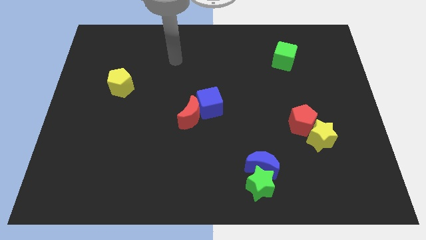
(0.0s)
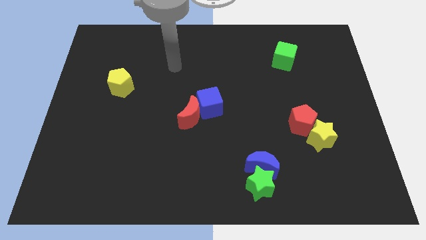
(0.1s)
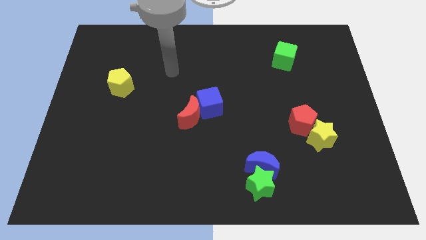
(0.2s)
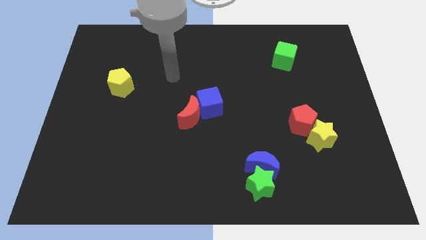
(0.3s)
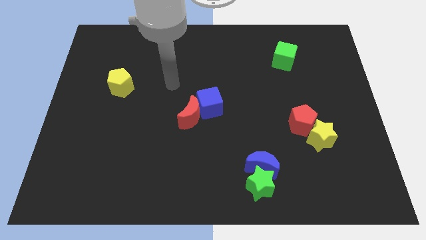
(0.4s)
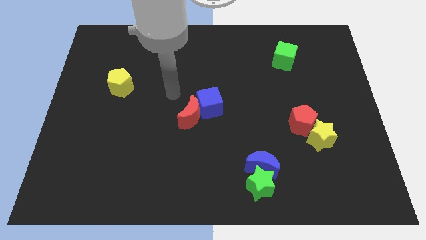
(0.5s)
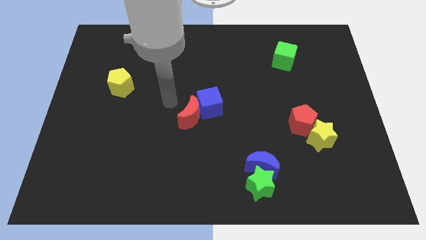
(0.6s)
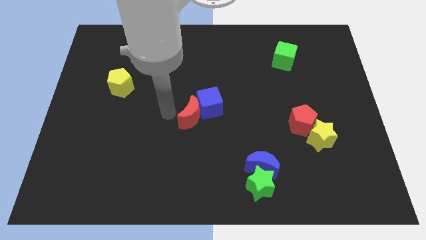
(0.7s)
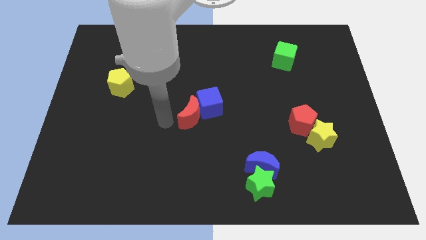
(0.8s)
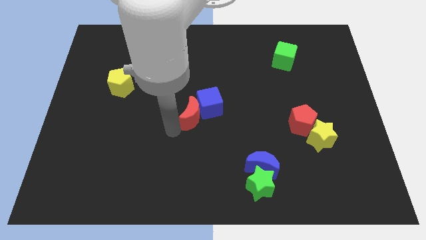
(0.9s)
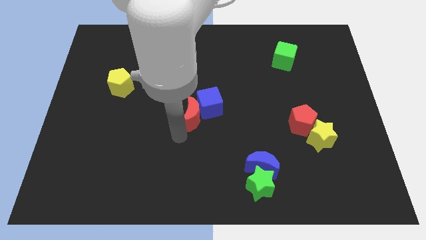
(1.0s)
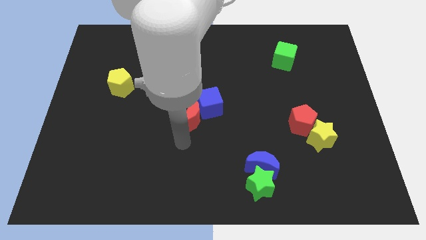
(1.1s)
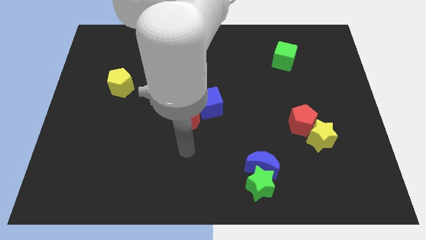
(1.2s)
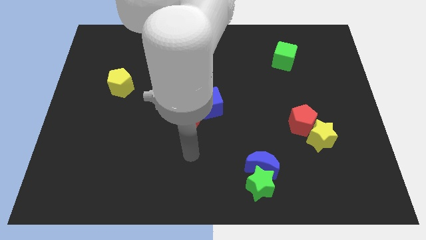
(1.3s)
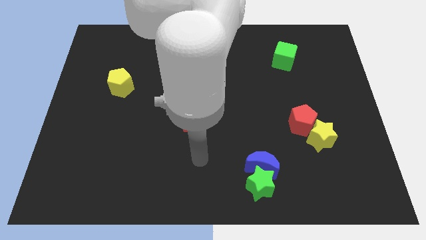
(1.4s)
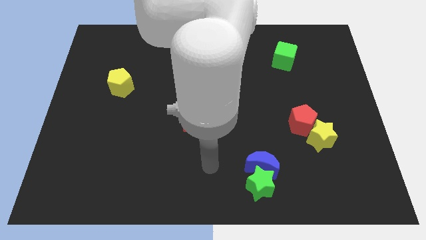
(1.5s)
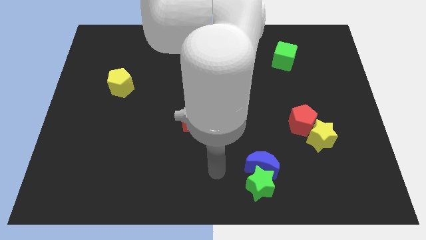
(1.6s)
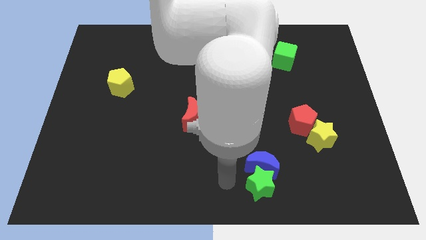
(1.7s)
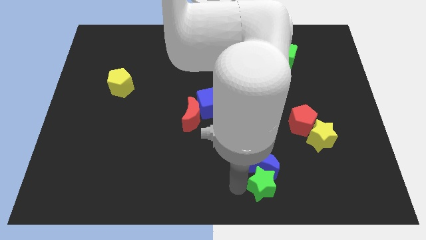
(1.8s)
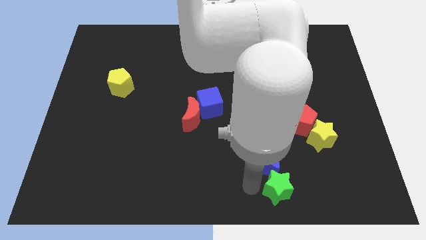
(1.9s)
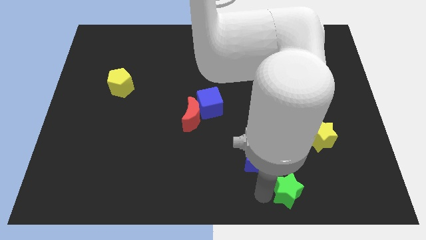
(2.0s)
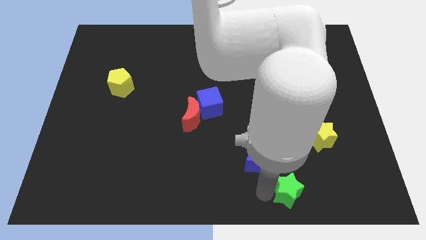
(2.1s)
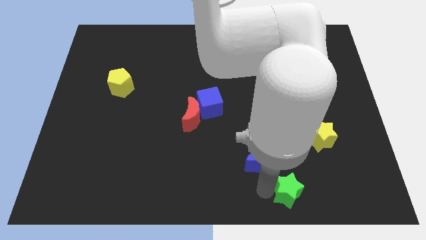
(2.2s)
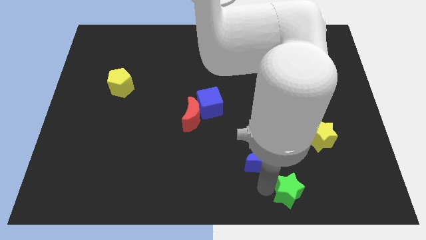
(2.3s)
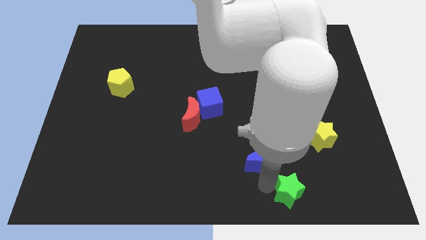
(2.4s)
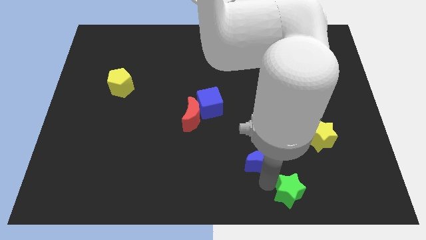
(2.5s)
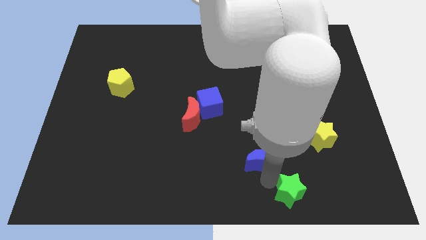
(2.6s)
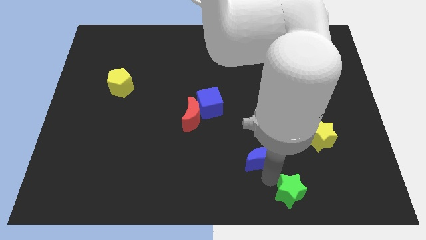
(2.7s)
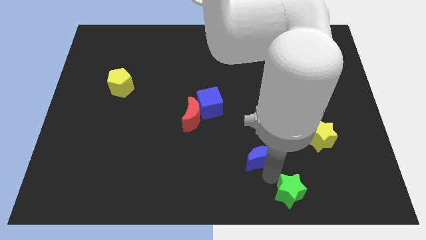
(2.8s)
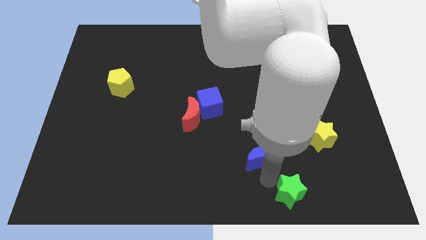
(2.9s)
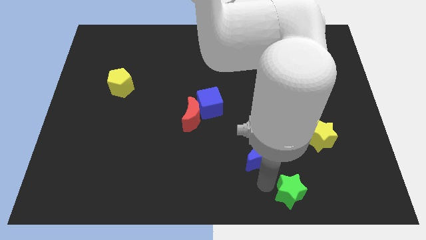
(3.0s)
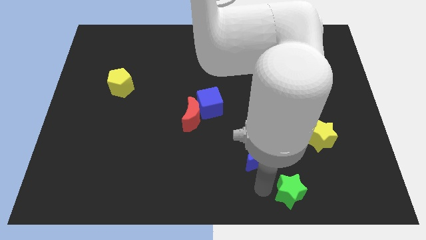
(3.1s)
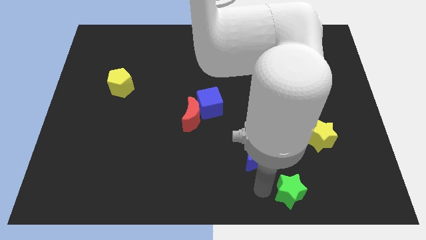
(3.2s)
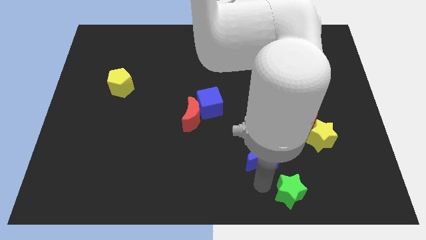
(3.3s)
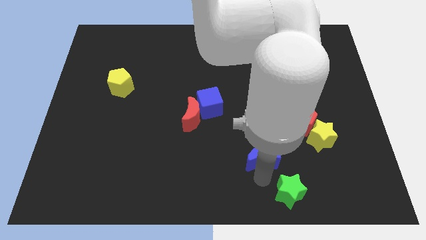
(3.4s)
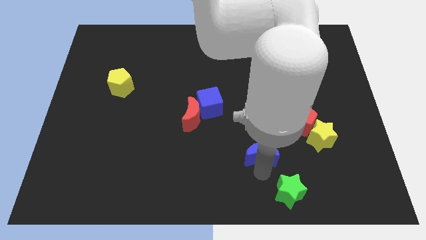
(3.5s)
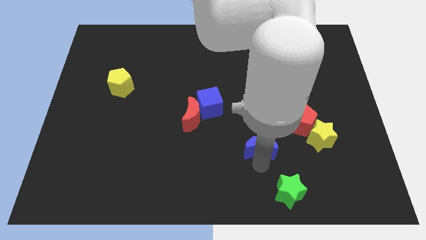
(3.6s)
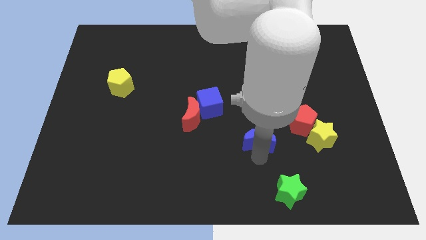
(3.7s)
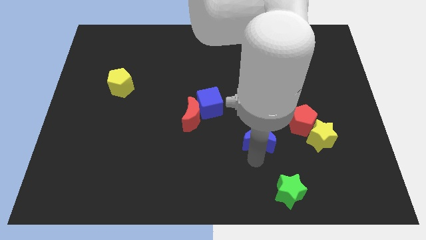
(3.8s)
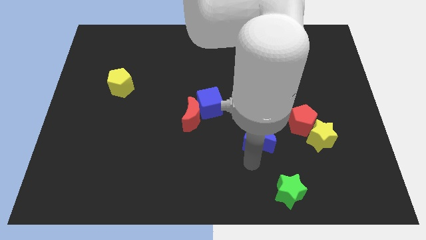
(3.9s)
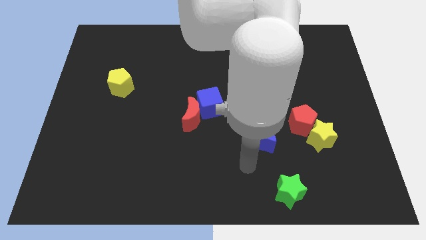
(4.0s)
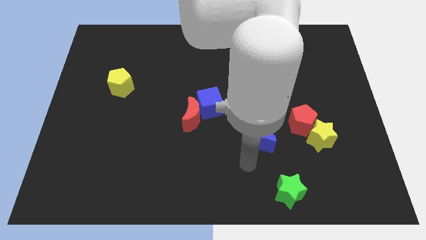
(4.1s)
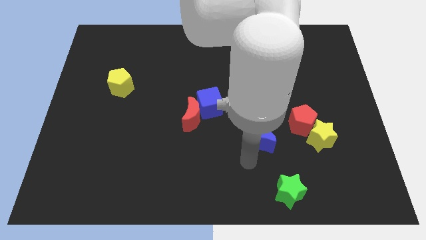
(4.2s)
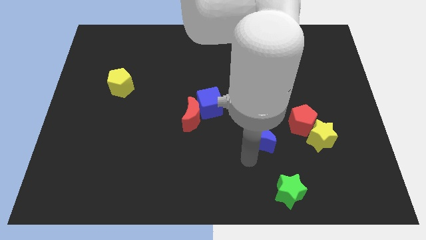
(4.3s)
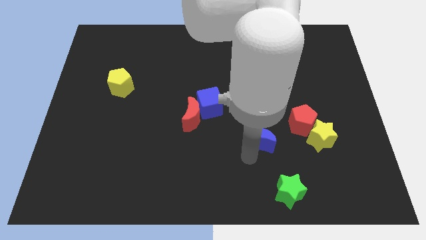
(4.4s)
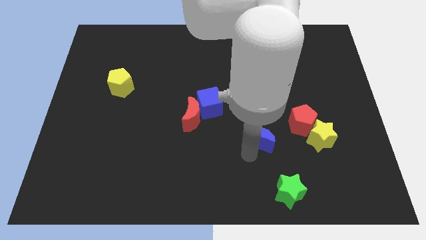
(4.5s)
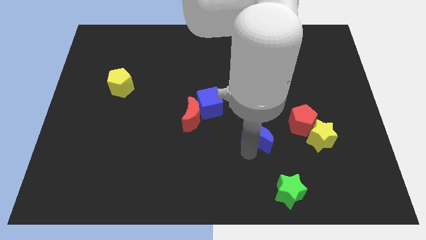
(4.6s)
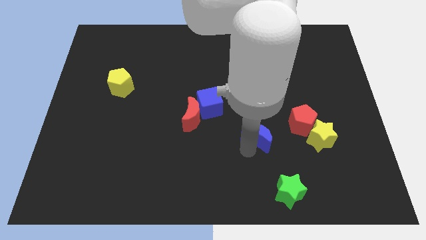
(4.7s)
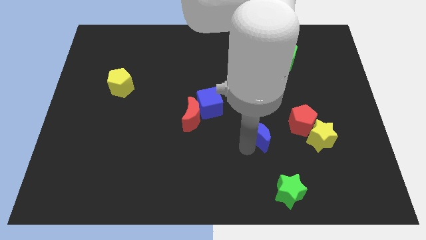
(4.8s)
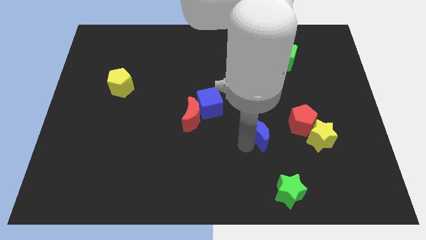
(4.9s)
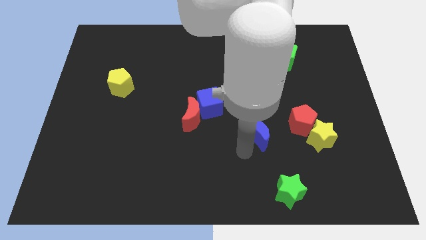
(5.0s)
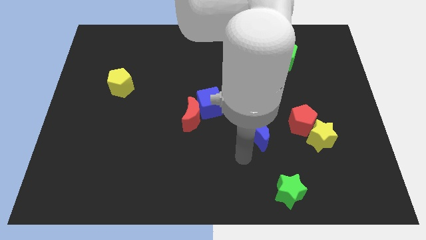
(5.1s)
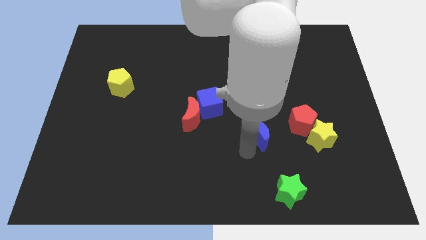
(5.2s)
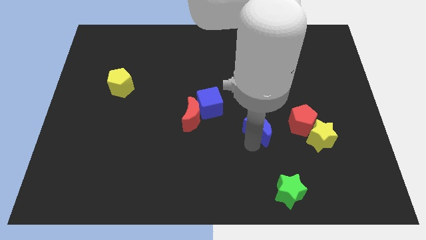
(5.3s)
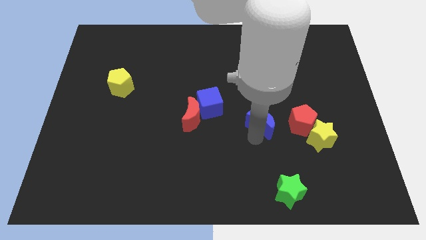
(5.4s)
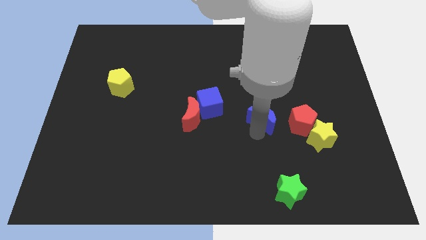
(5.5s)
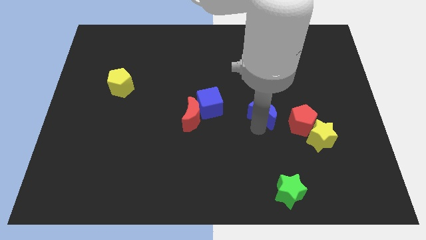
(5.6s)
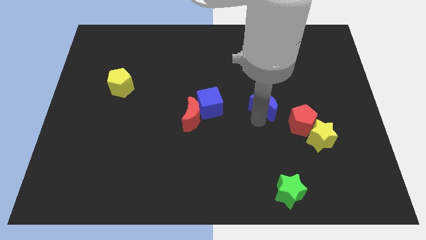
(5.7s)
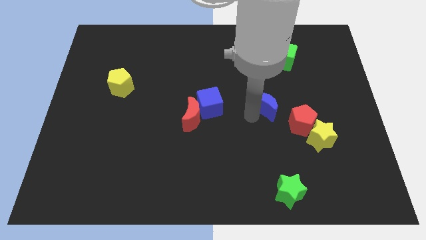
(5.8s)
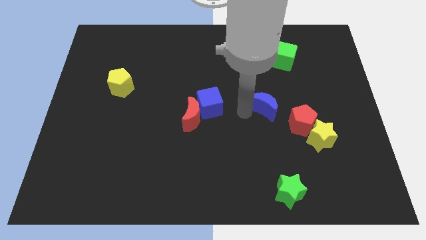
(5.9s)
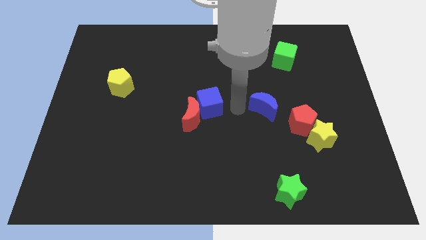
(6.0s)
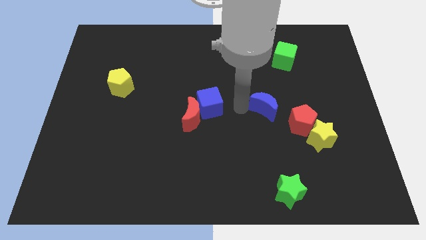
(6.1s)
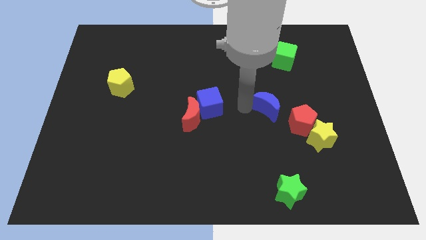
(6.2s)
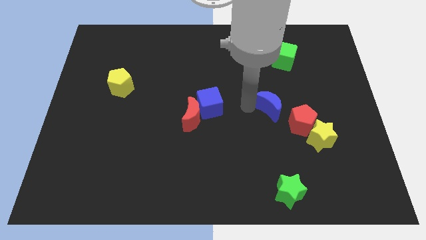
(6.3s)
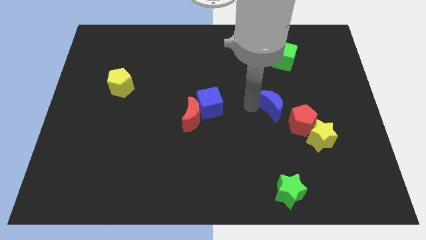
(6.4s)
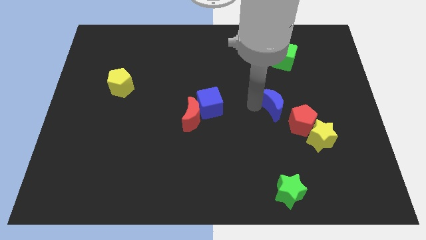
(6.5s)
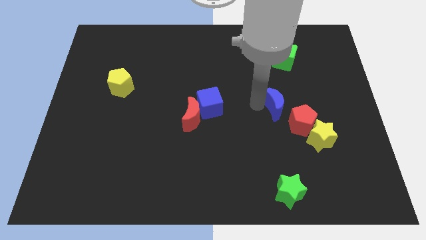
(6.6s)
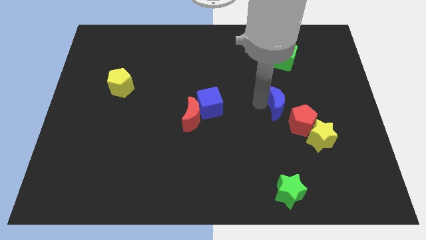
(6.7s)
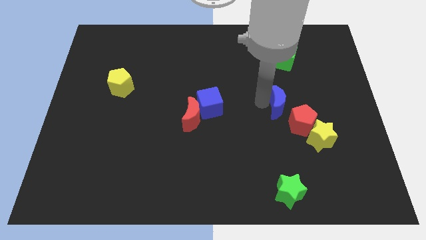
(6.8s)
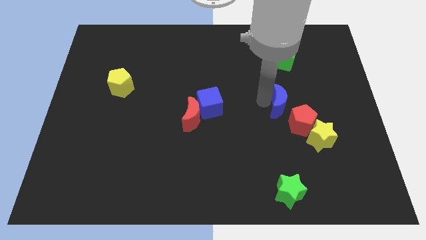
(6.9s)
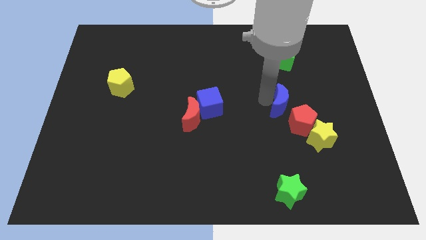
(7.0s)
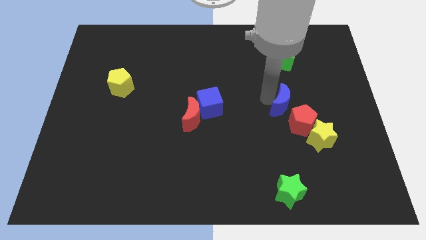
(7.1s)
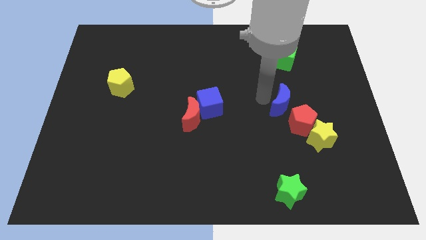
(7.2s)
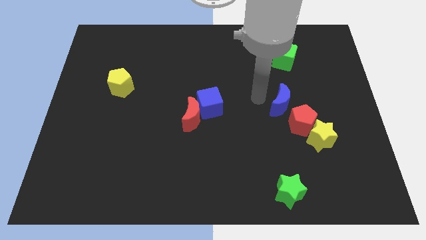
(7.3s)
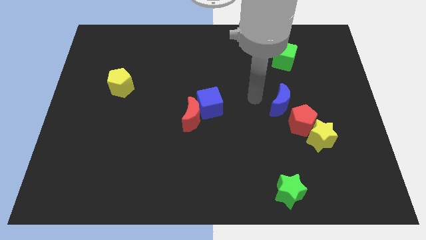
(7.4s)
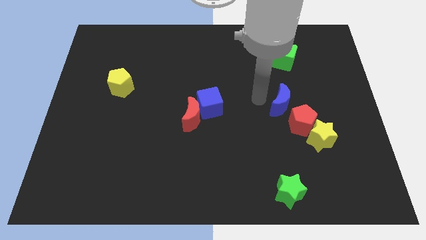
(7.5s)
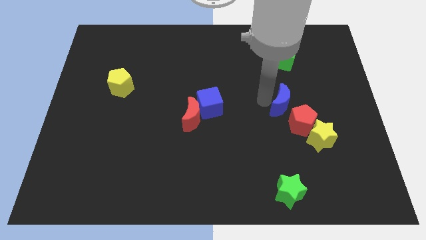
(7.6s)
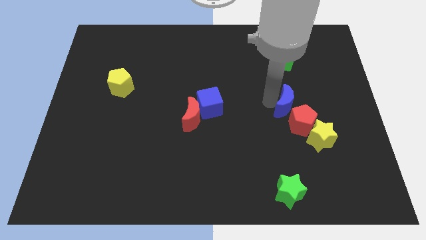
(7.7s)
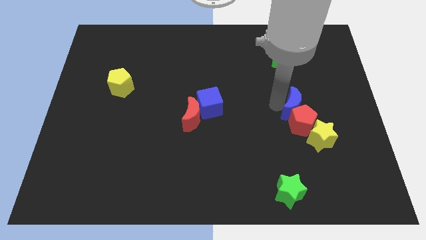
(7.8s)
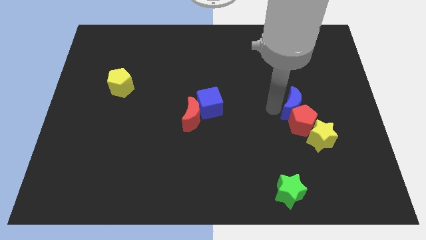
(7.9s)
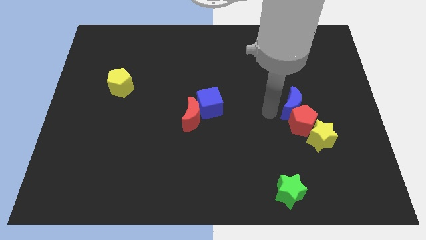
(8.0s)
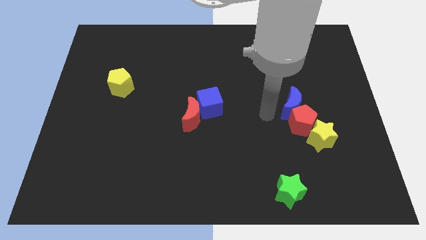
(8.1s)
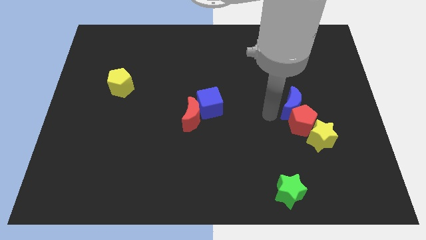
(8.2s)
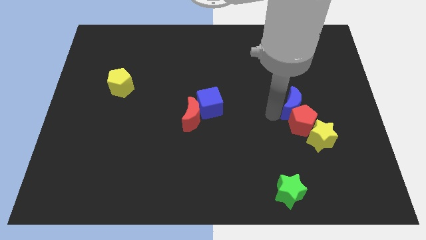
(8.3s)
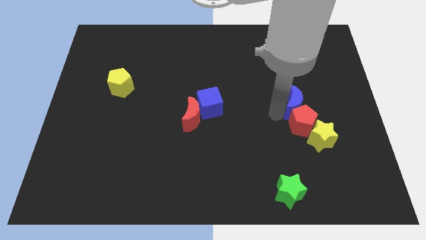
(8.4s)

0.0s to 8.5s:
put the blue moon to the top of the yellow star
